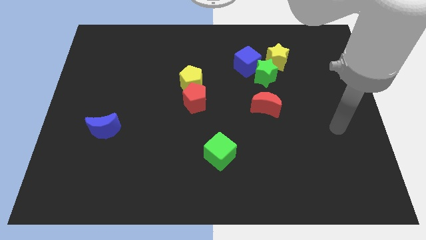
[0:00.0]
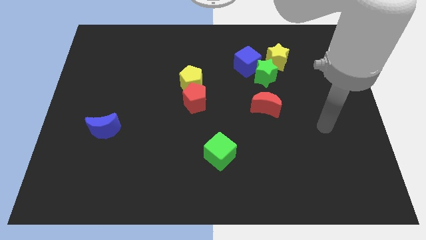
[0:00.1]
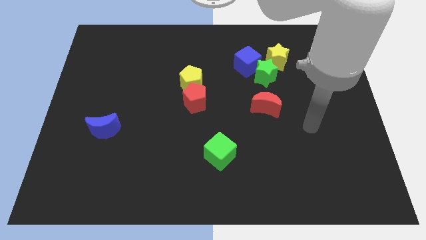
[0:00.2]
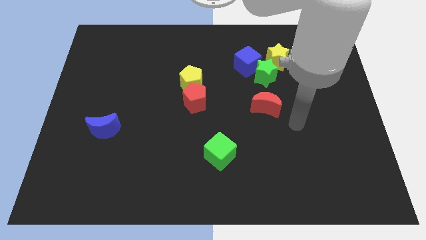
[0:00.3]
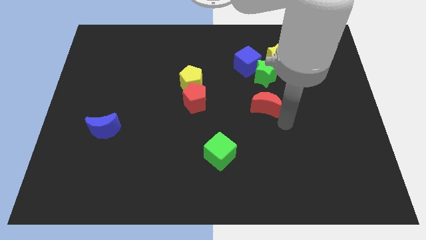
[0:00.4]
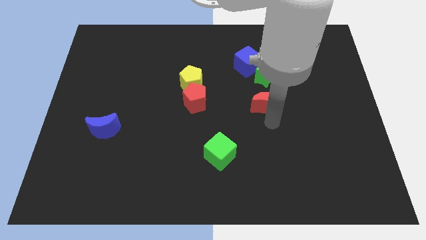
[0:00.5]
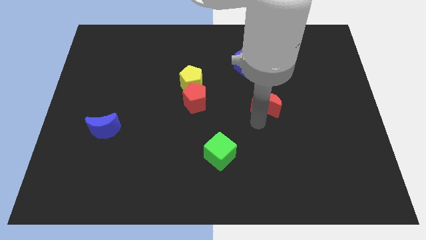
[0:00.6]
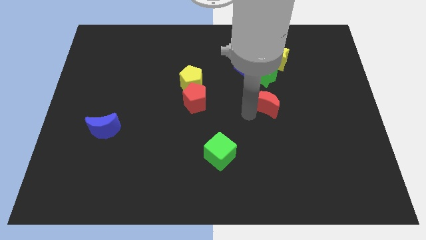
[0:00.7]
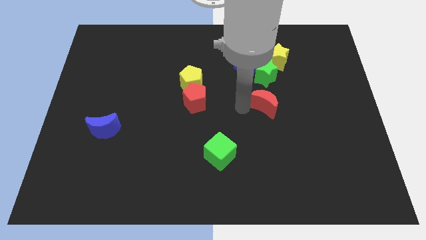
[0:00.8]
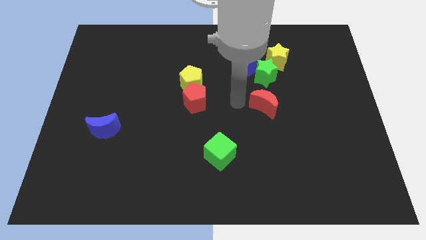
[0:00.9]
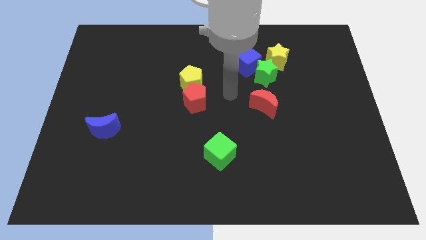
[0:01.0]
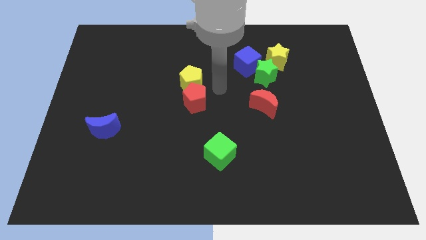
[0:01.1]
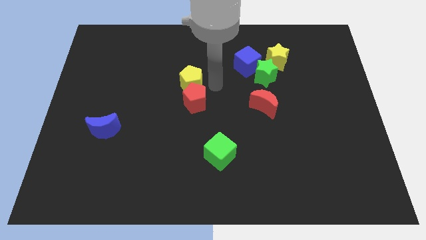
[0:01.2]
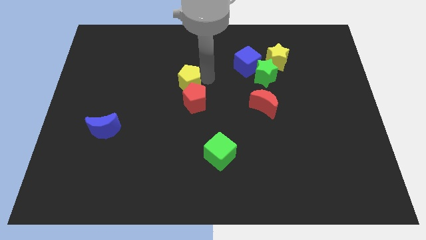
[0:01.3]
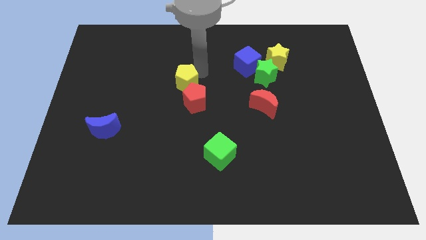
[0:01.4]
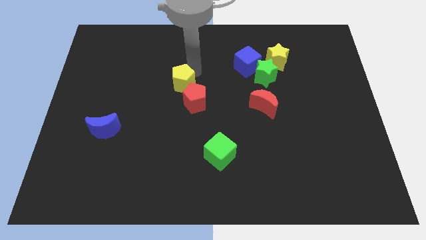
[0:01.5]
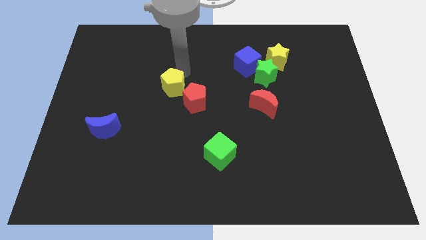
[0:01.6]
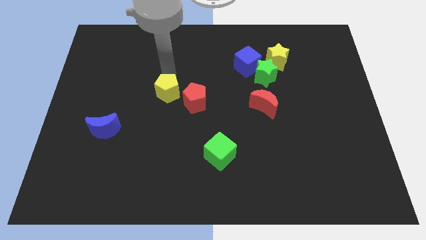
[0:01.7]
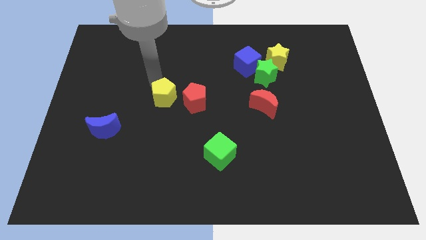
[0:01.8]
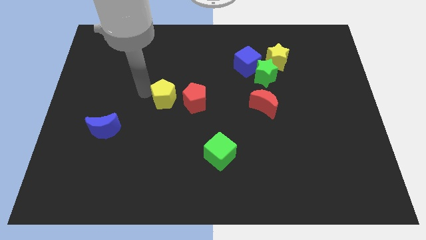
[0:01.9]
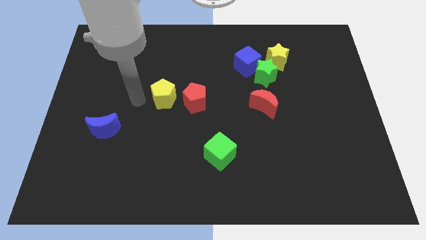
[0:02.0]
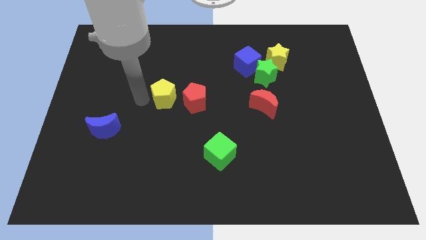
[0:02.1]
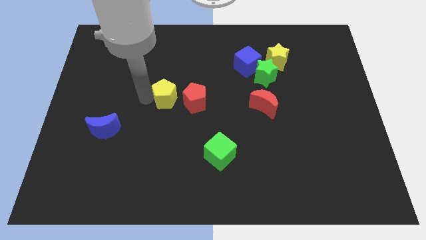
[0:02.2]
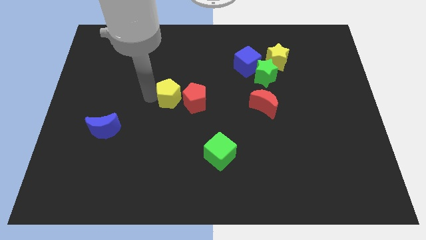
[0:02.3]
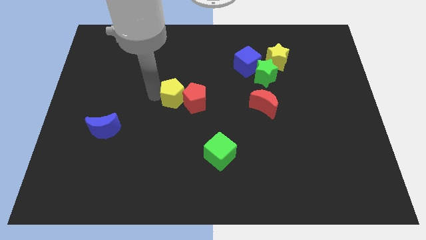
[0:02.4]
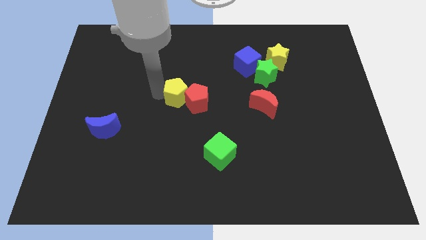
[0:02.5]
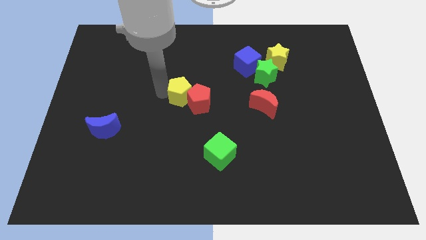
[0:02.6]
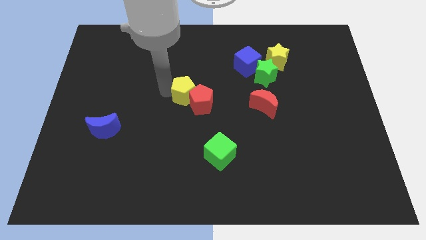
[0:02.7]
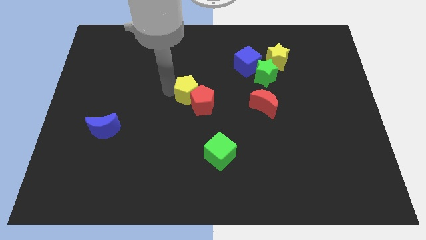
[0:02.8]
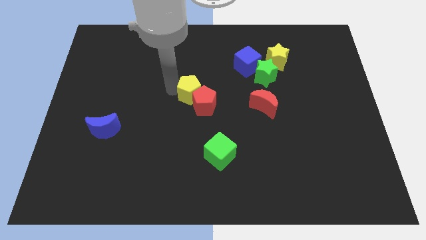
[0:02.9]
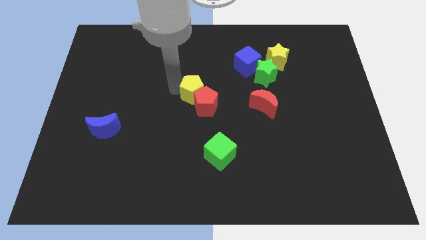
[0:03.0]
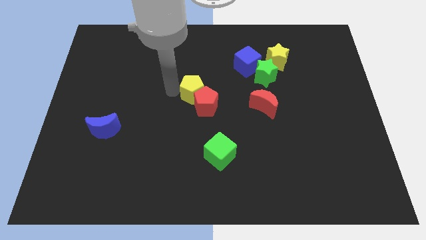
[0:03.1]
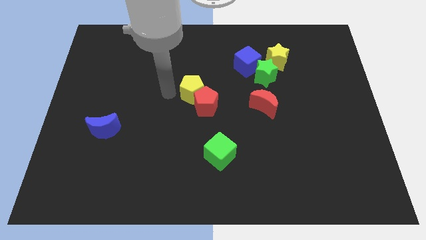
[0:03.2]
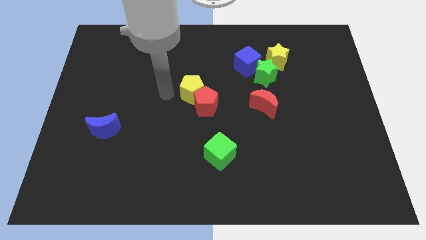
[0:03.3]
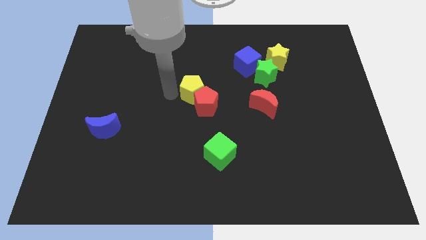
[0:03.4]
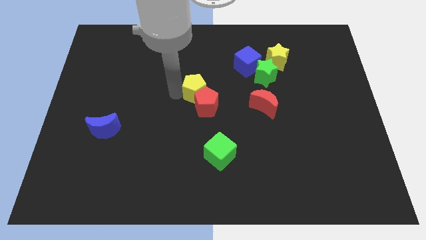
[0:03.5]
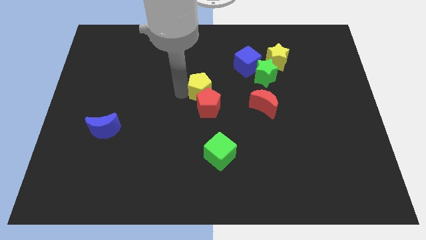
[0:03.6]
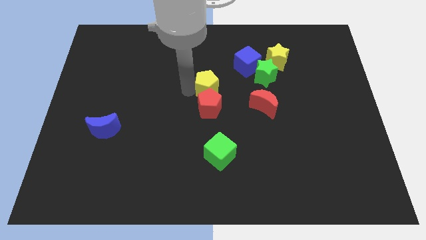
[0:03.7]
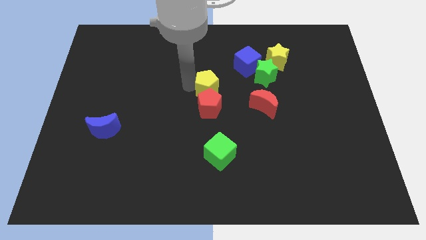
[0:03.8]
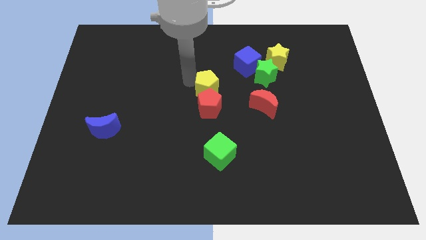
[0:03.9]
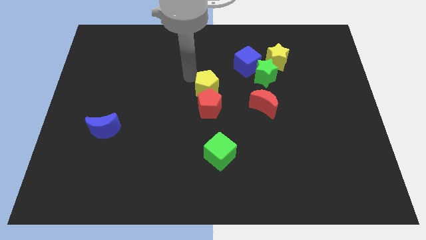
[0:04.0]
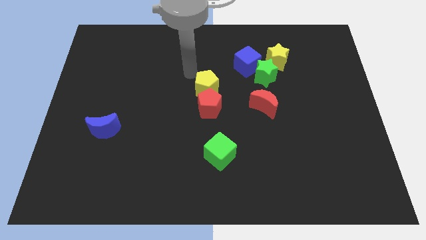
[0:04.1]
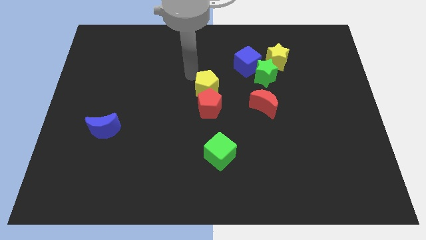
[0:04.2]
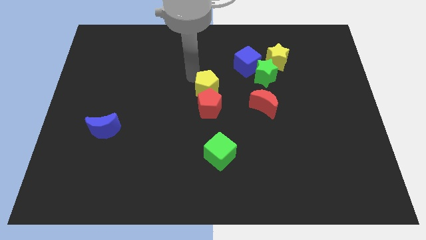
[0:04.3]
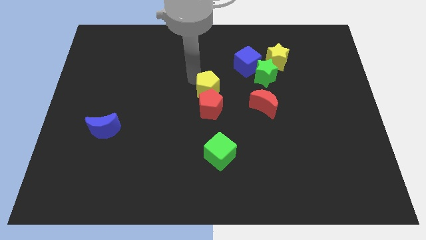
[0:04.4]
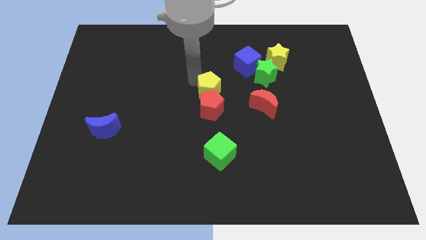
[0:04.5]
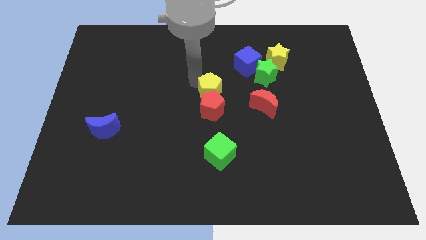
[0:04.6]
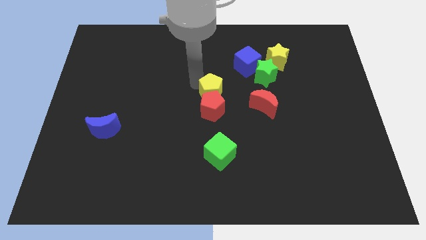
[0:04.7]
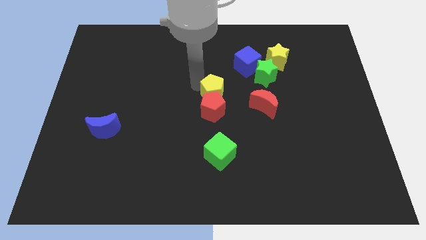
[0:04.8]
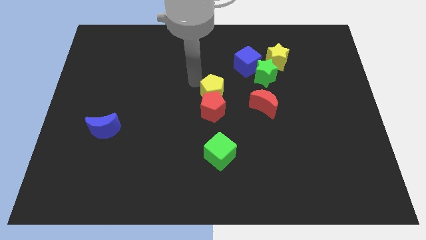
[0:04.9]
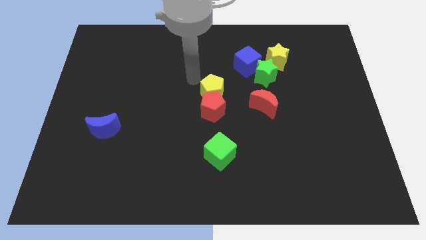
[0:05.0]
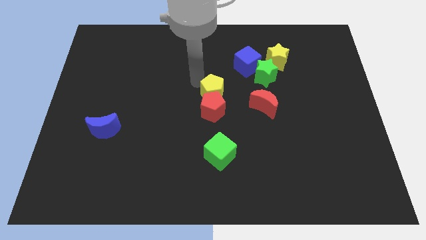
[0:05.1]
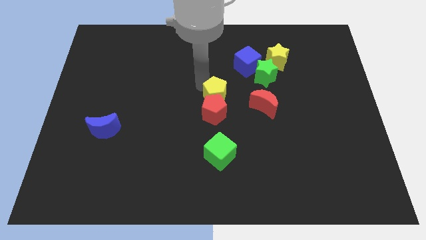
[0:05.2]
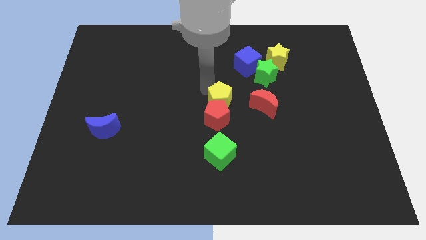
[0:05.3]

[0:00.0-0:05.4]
slightly slide the yellow pentagon down and to the right diagonally

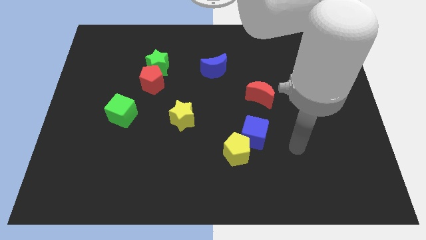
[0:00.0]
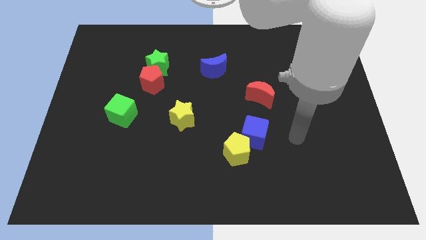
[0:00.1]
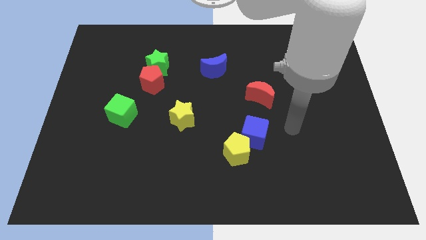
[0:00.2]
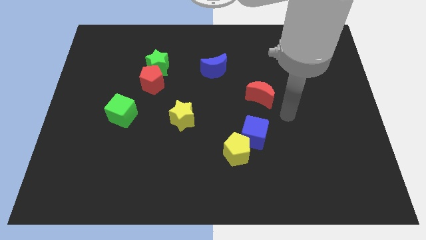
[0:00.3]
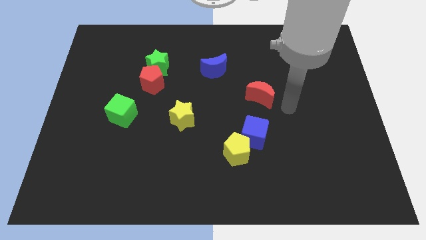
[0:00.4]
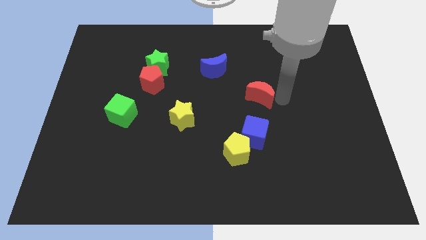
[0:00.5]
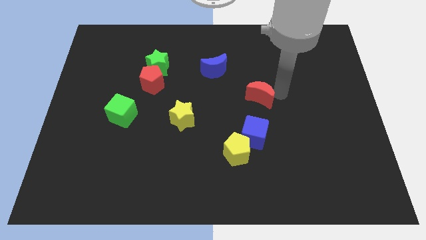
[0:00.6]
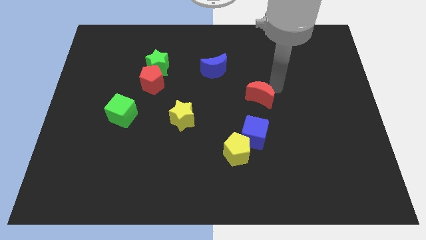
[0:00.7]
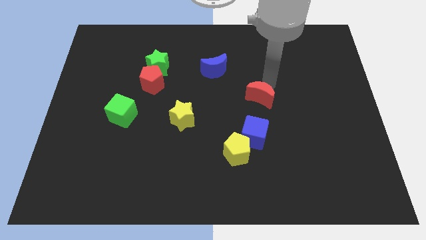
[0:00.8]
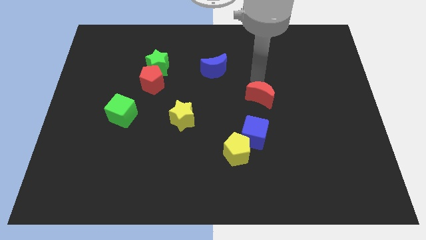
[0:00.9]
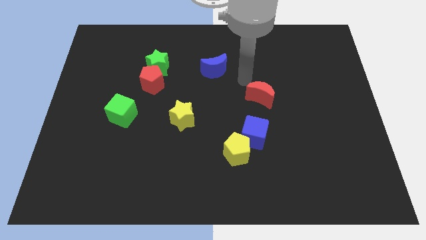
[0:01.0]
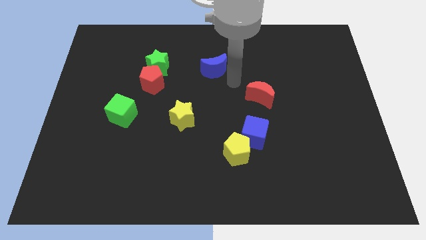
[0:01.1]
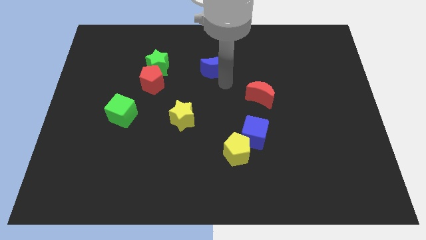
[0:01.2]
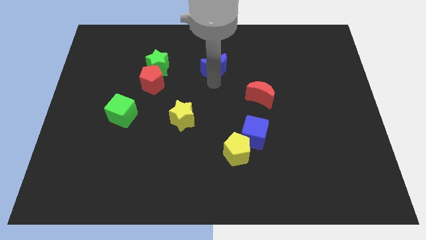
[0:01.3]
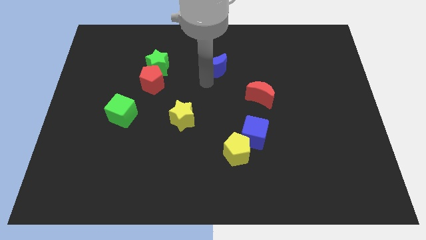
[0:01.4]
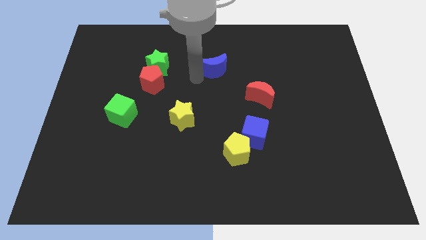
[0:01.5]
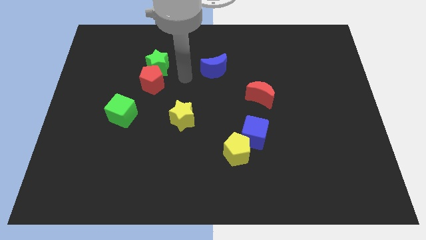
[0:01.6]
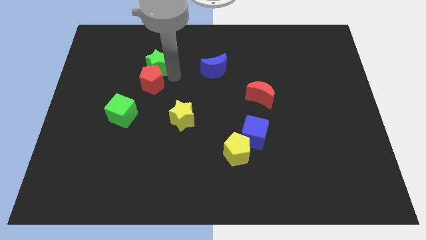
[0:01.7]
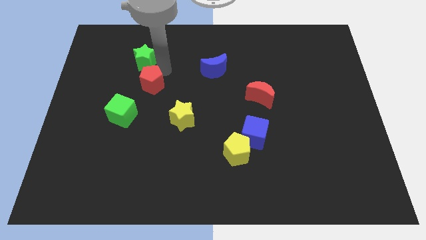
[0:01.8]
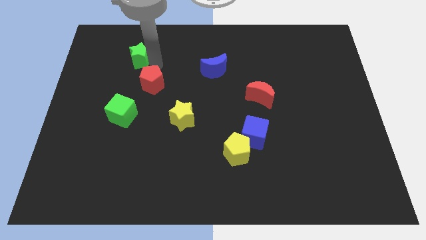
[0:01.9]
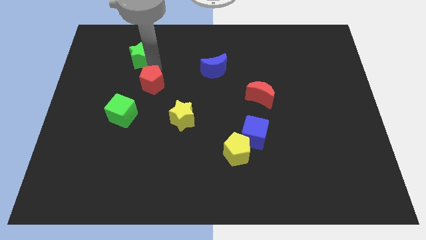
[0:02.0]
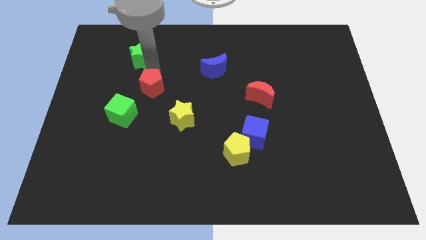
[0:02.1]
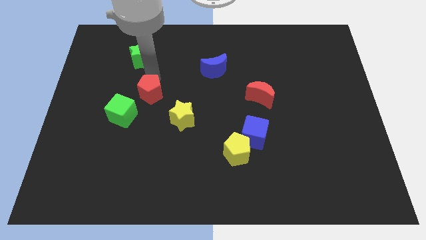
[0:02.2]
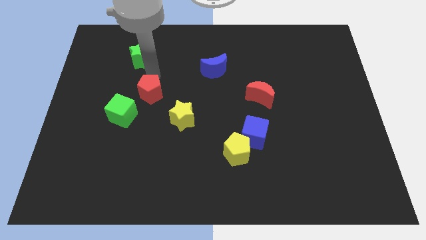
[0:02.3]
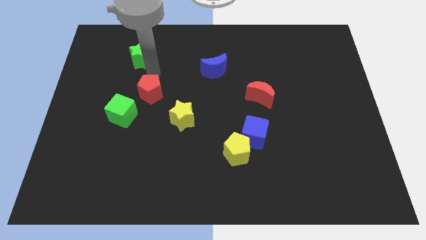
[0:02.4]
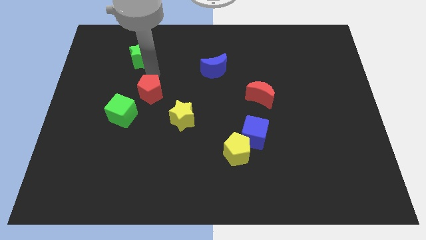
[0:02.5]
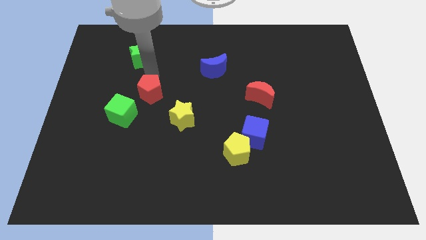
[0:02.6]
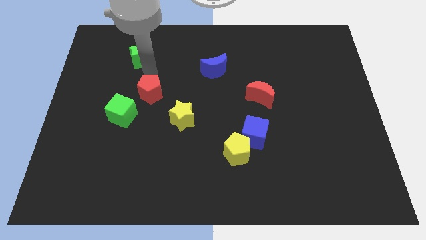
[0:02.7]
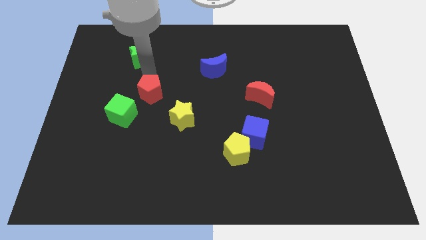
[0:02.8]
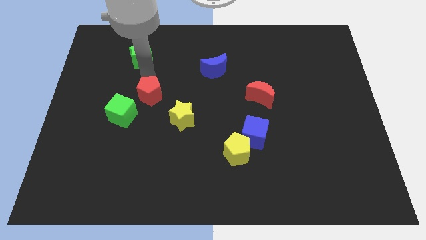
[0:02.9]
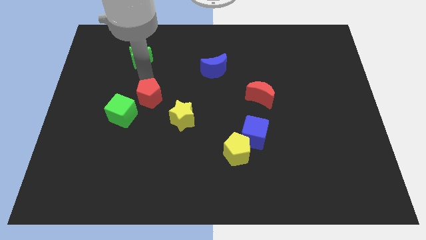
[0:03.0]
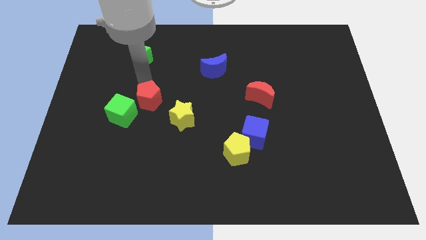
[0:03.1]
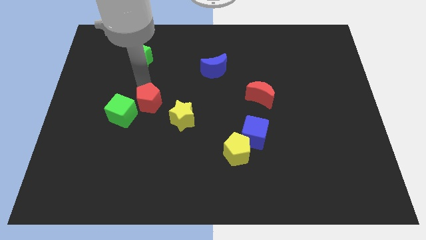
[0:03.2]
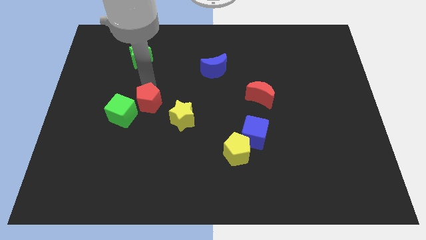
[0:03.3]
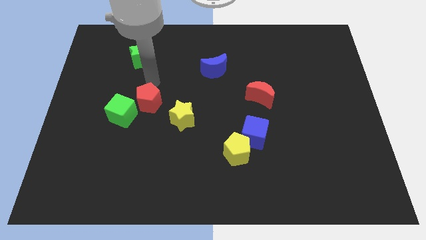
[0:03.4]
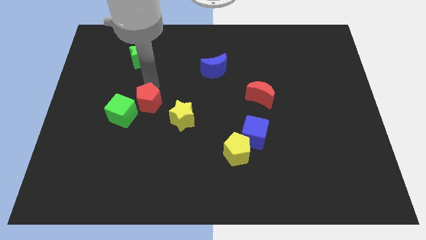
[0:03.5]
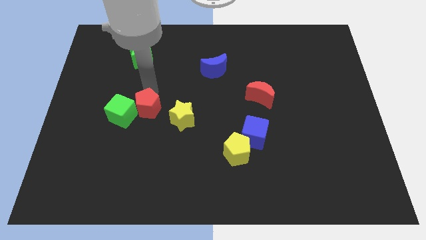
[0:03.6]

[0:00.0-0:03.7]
slide the red pentagon somewhat down
